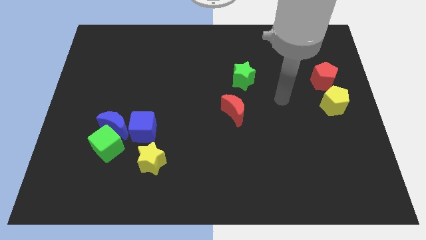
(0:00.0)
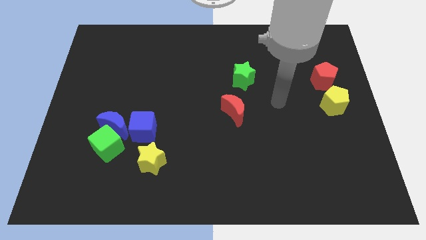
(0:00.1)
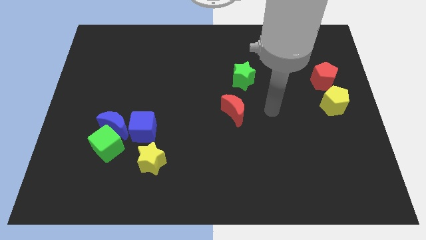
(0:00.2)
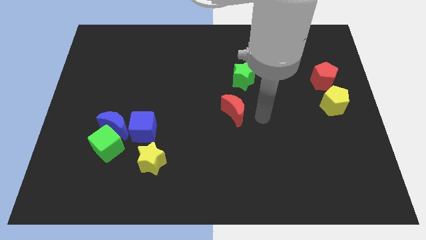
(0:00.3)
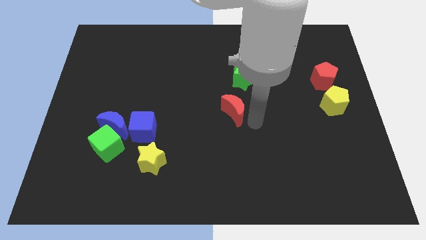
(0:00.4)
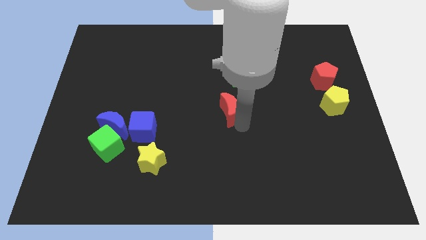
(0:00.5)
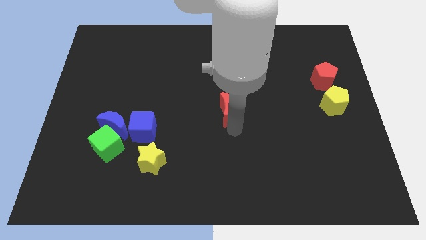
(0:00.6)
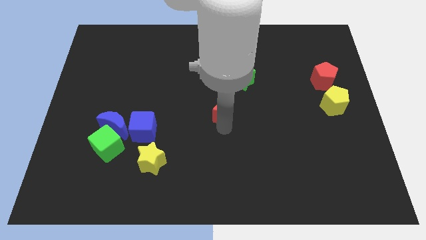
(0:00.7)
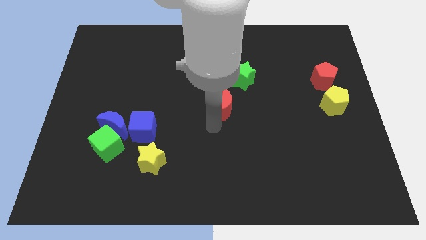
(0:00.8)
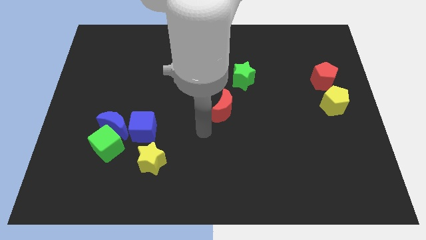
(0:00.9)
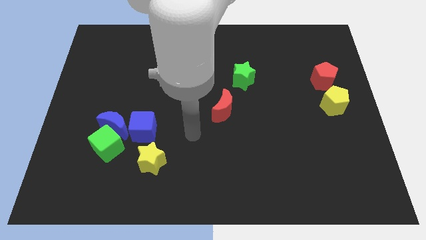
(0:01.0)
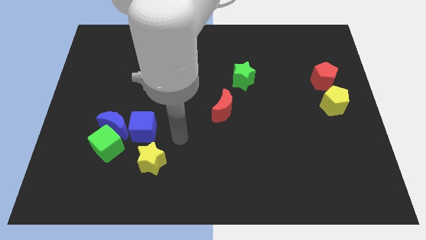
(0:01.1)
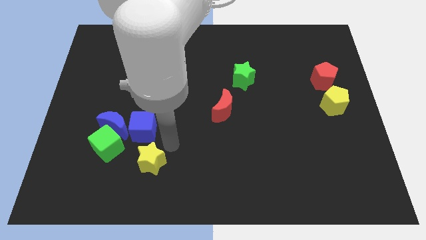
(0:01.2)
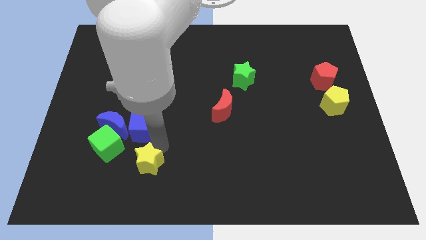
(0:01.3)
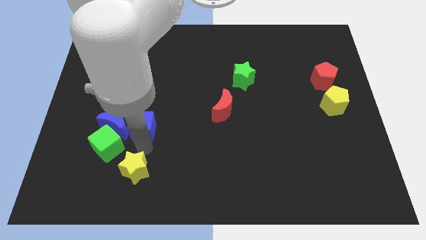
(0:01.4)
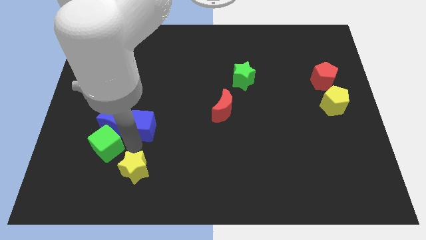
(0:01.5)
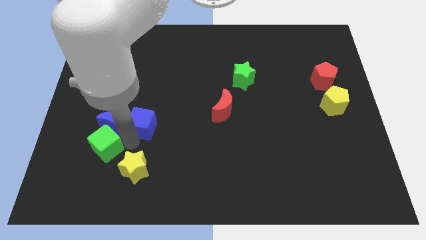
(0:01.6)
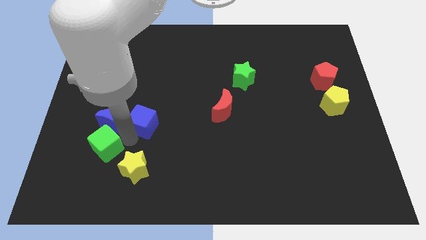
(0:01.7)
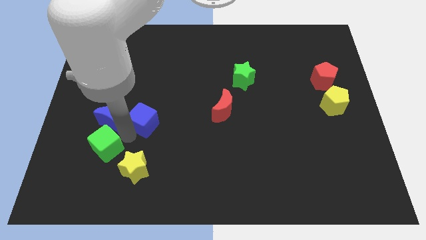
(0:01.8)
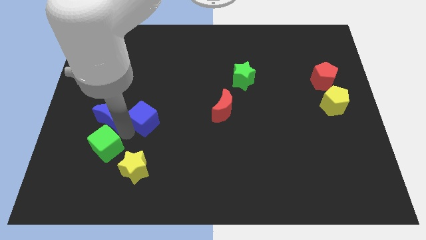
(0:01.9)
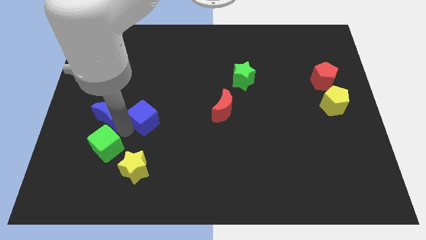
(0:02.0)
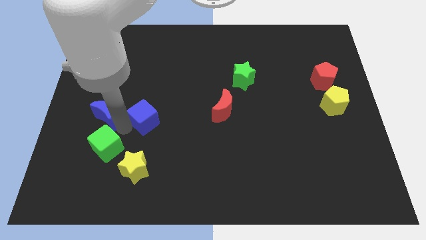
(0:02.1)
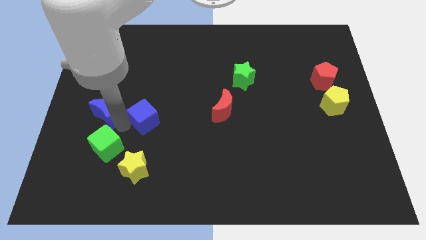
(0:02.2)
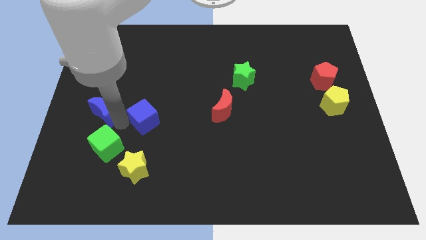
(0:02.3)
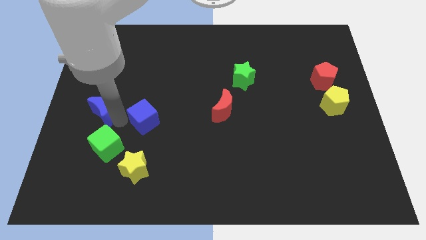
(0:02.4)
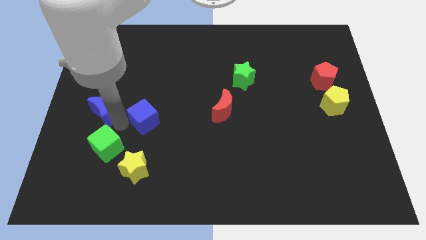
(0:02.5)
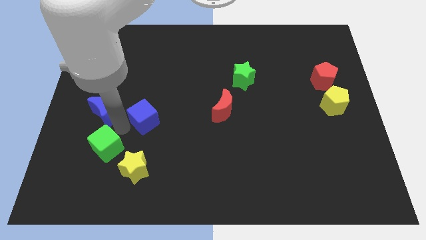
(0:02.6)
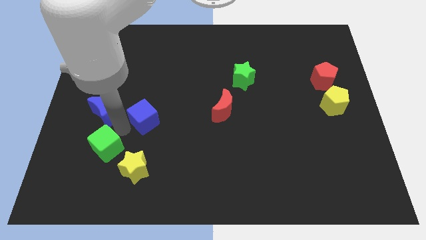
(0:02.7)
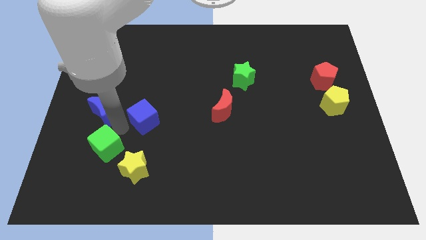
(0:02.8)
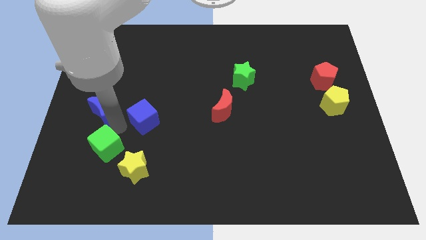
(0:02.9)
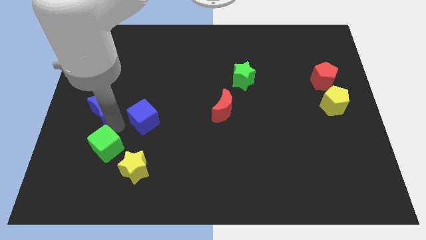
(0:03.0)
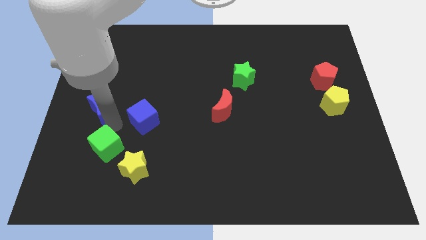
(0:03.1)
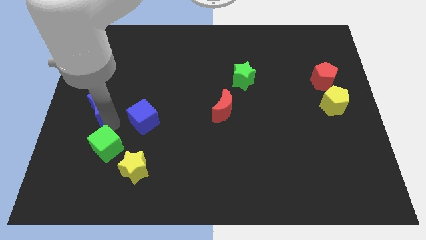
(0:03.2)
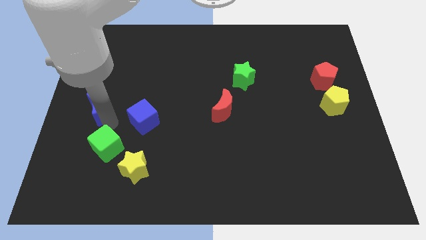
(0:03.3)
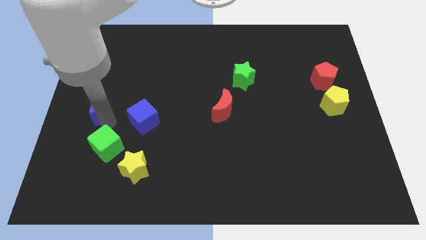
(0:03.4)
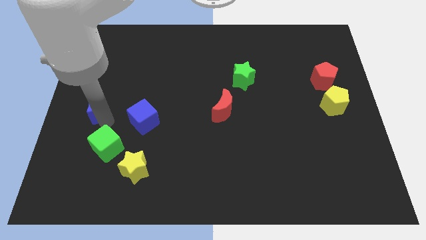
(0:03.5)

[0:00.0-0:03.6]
pull the blue moon apart from the green cube and blue cube

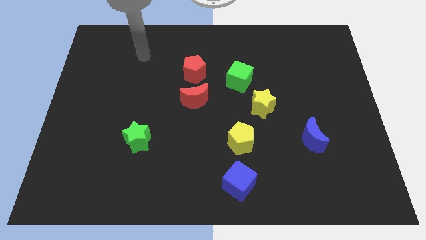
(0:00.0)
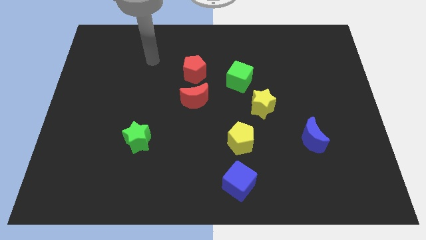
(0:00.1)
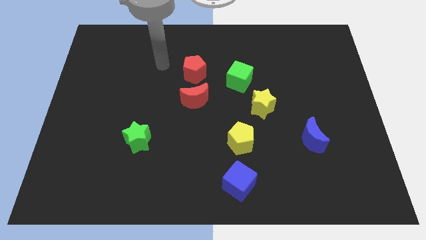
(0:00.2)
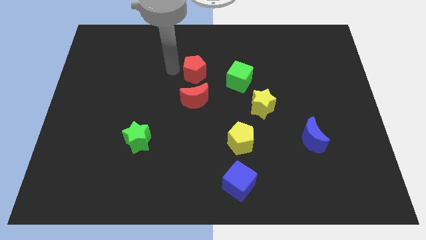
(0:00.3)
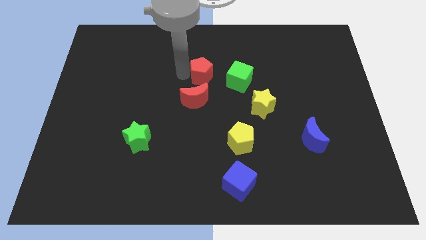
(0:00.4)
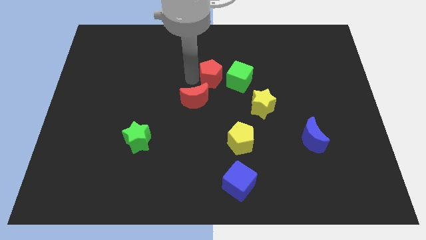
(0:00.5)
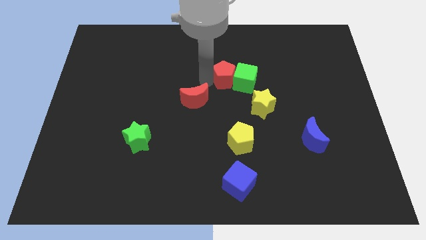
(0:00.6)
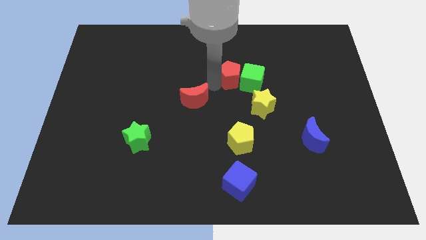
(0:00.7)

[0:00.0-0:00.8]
pull the red moon apart from the red pentagon

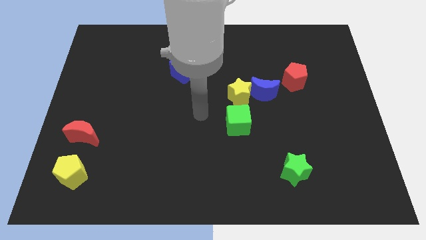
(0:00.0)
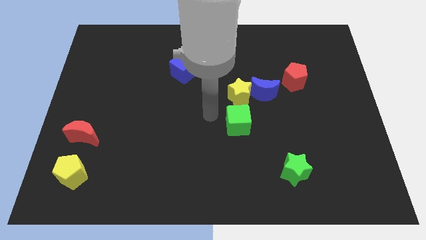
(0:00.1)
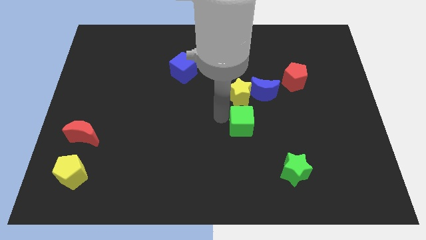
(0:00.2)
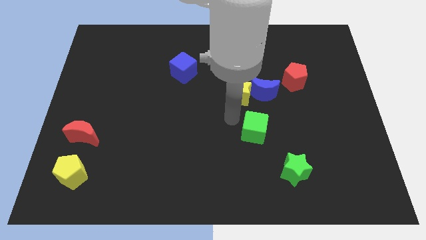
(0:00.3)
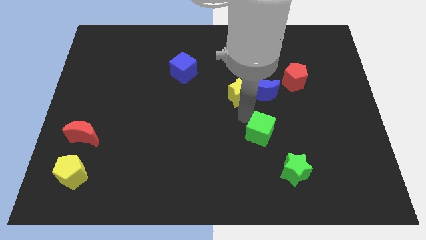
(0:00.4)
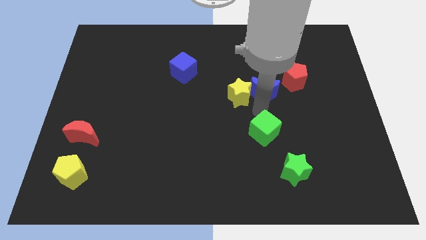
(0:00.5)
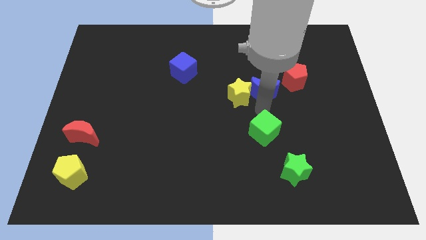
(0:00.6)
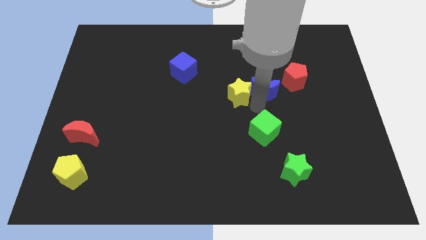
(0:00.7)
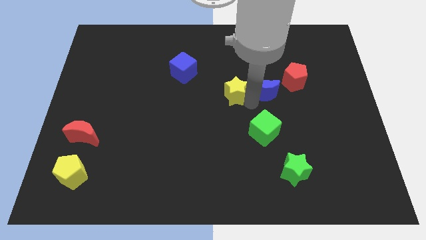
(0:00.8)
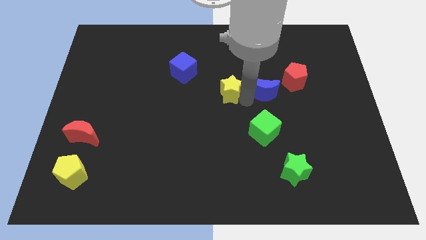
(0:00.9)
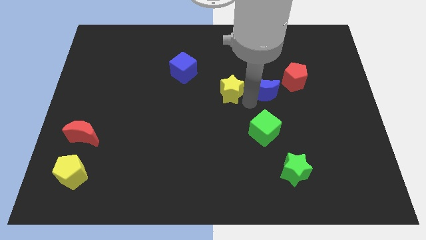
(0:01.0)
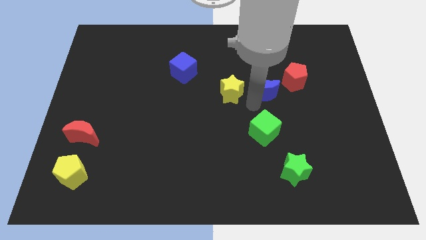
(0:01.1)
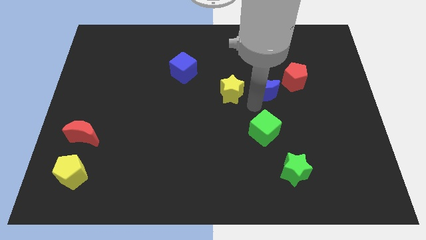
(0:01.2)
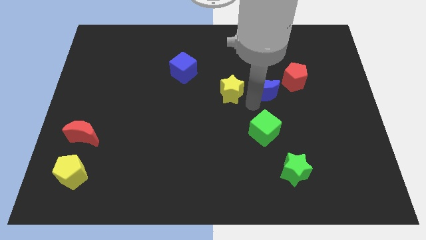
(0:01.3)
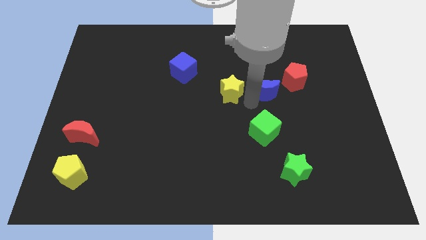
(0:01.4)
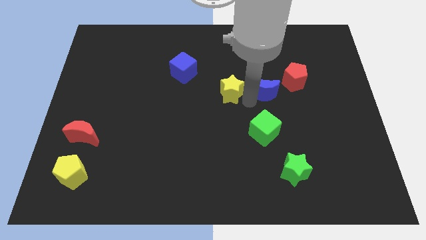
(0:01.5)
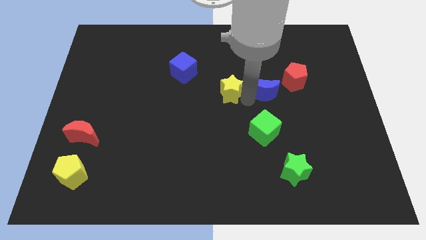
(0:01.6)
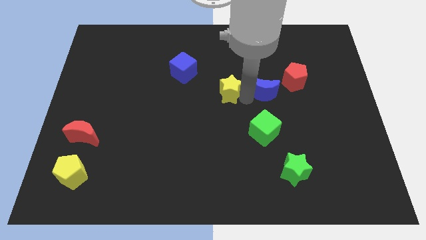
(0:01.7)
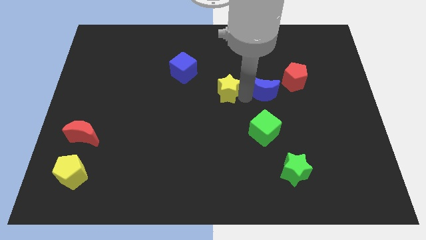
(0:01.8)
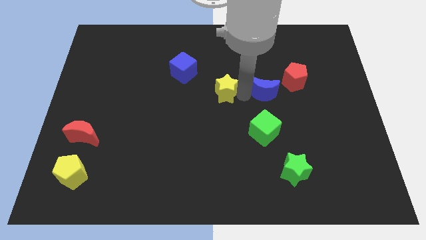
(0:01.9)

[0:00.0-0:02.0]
separate the yellow star from the blue moon and green cube

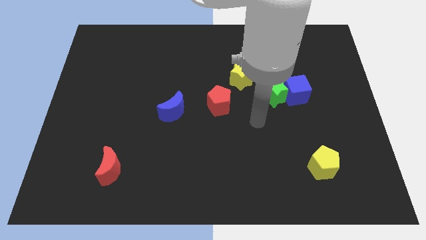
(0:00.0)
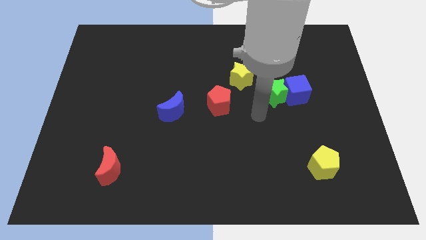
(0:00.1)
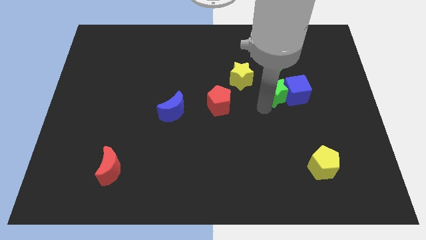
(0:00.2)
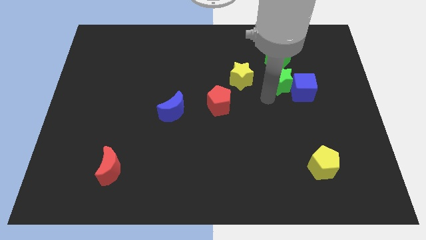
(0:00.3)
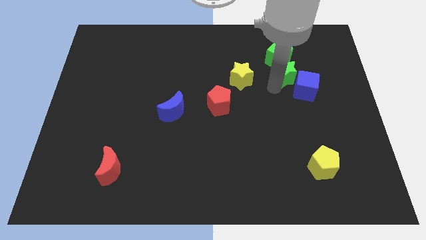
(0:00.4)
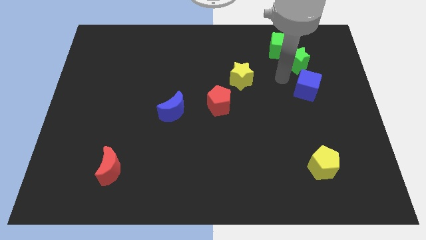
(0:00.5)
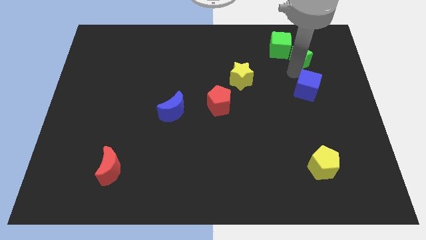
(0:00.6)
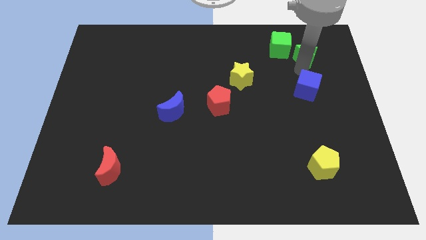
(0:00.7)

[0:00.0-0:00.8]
separate the blue cube from the green star

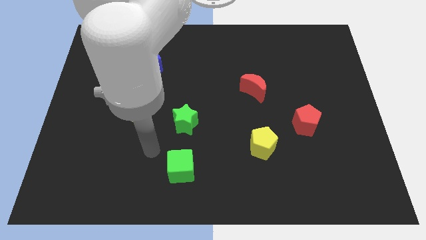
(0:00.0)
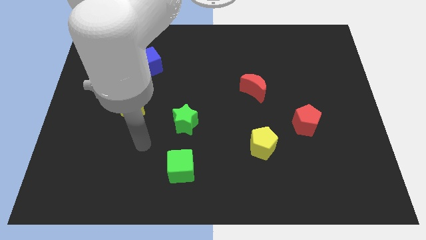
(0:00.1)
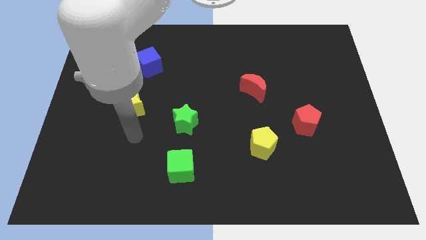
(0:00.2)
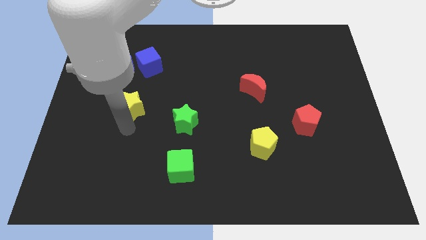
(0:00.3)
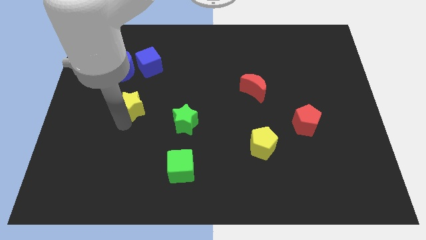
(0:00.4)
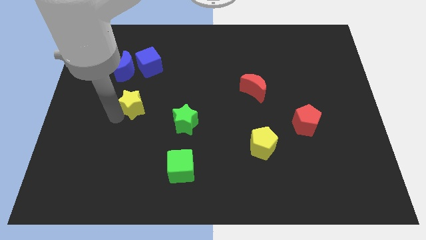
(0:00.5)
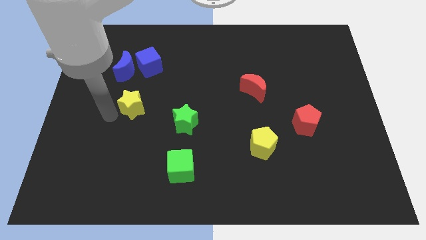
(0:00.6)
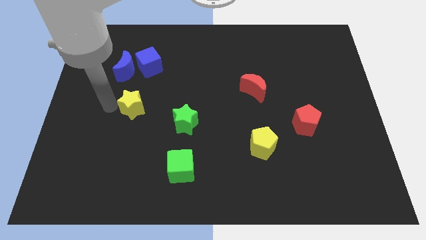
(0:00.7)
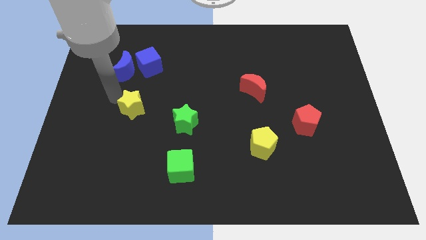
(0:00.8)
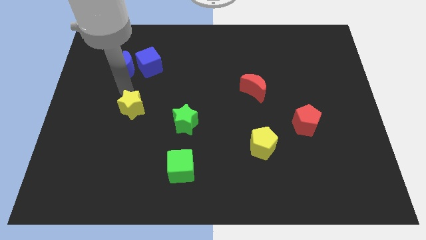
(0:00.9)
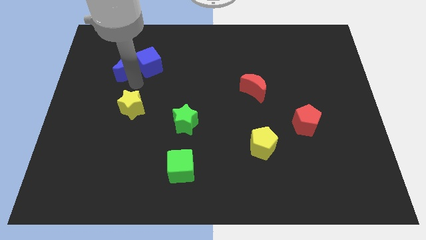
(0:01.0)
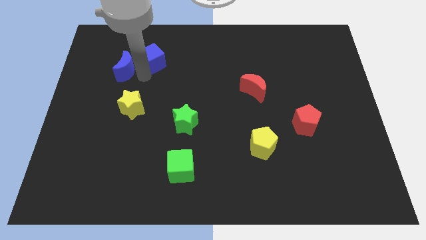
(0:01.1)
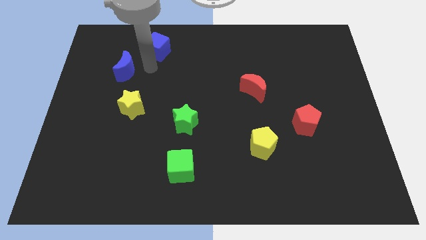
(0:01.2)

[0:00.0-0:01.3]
separate the blue moon from the blue cube

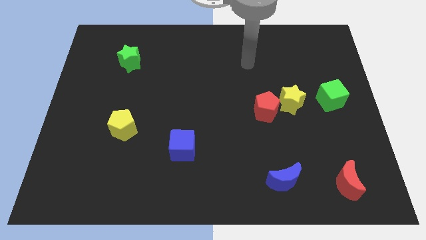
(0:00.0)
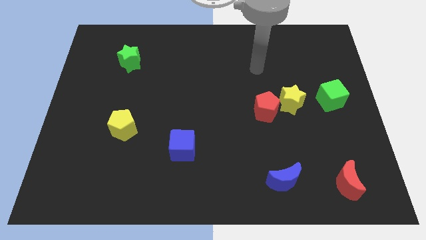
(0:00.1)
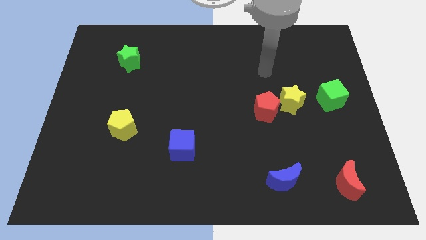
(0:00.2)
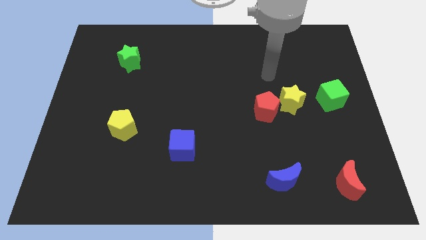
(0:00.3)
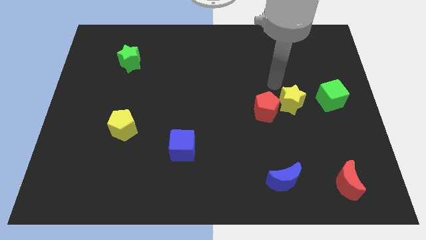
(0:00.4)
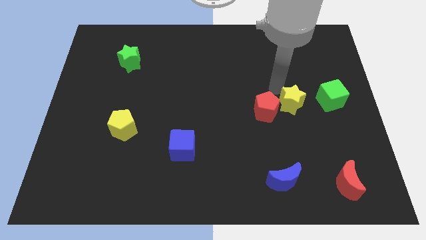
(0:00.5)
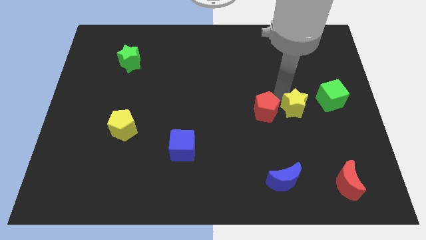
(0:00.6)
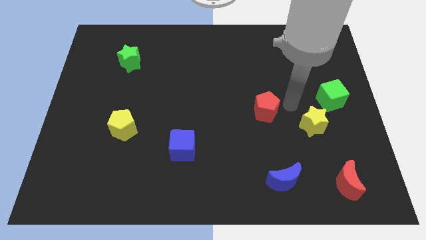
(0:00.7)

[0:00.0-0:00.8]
separate the red pentagon from the yellow star
